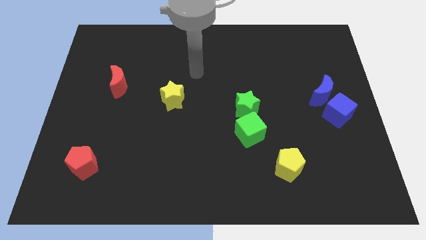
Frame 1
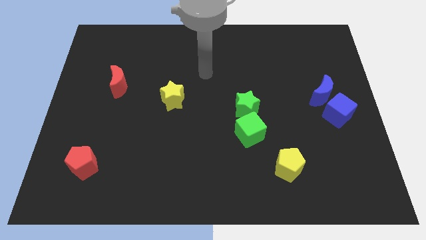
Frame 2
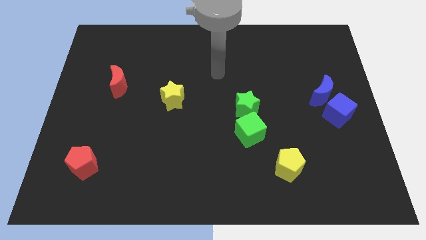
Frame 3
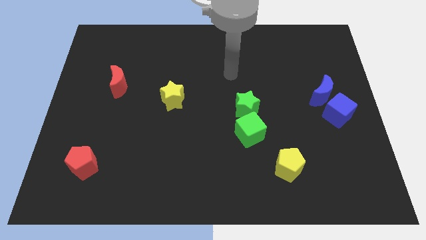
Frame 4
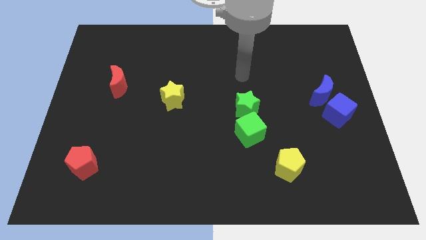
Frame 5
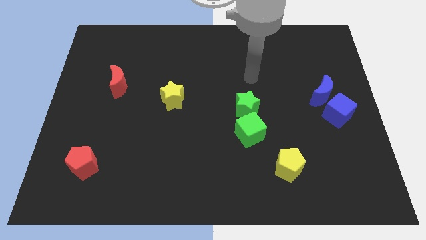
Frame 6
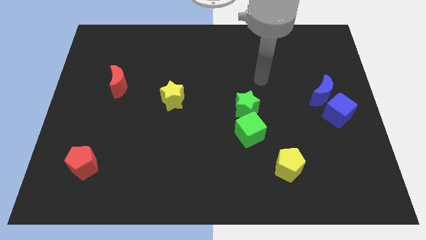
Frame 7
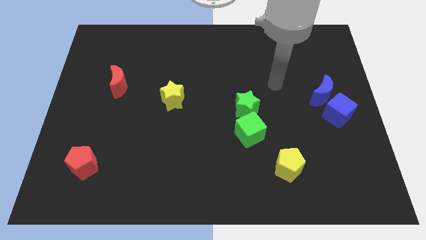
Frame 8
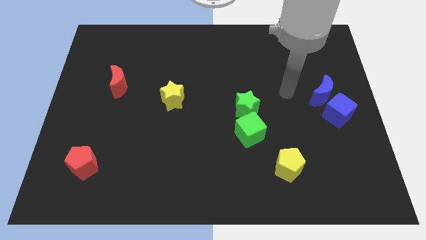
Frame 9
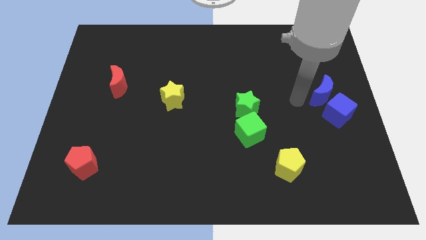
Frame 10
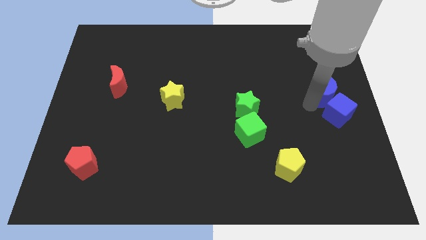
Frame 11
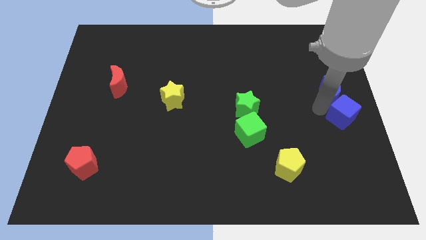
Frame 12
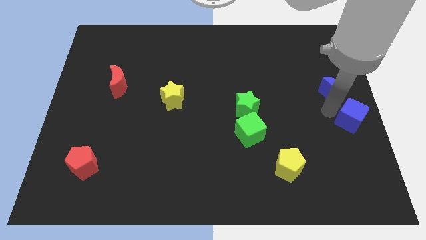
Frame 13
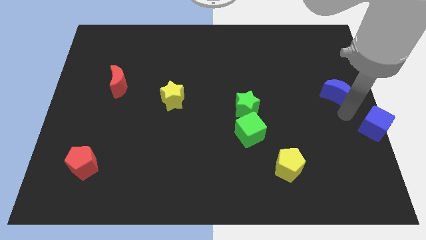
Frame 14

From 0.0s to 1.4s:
separate the blue moon from the blue cube

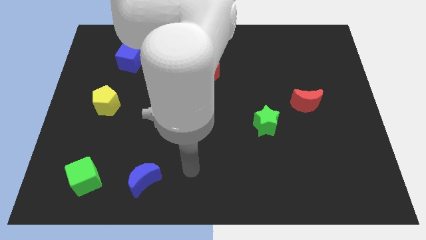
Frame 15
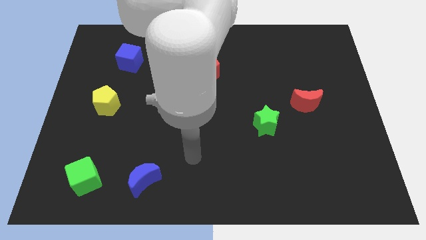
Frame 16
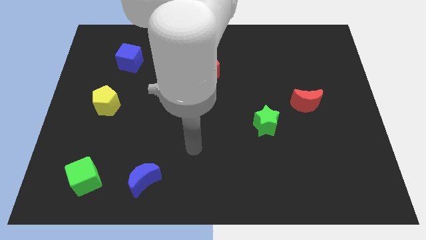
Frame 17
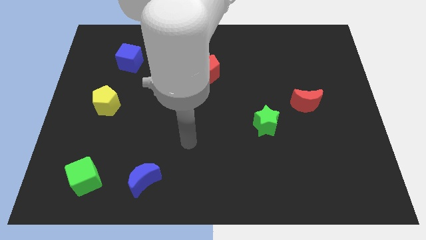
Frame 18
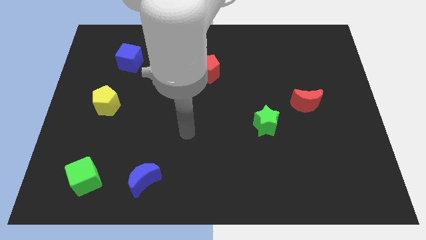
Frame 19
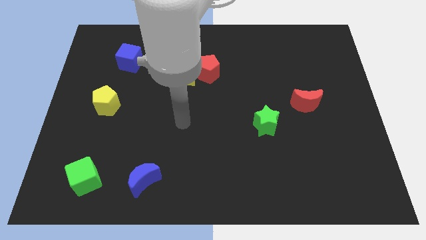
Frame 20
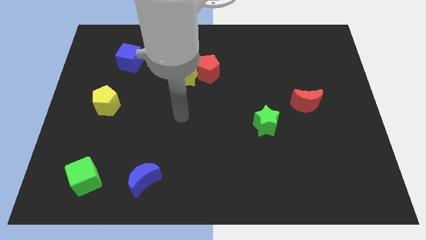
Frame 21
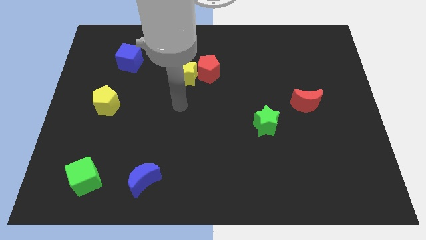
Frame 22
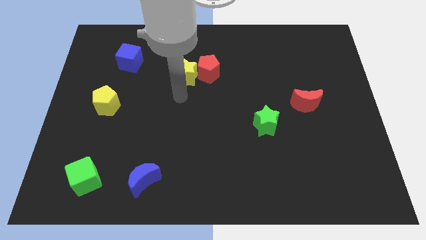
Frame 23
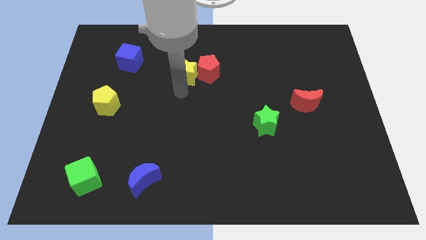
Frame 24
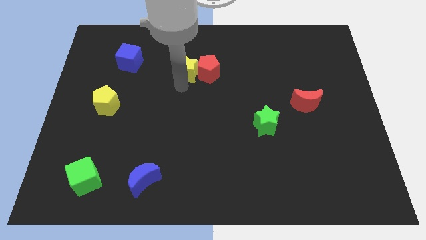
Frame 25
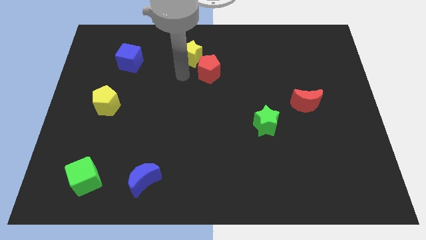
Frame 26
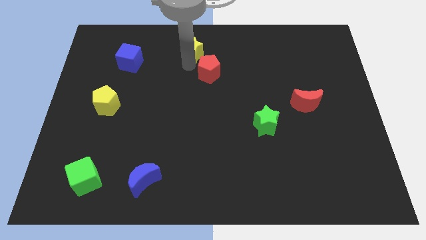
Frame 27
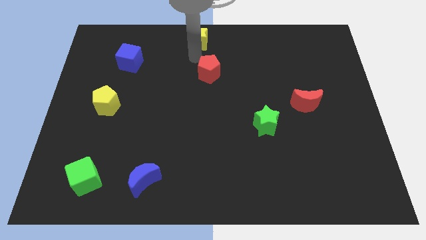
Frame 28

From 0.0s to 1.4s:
move the red pentagon away from the yellow star

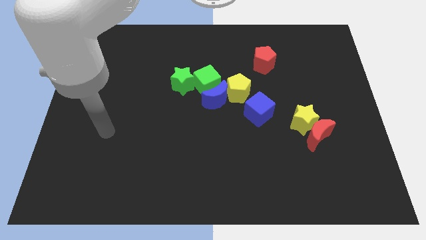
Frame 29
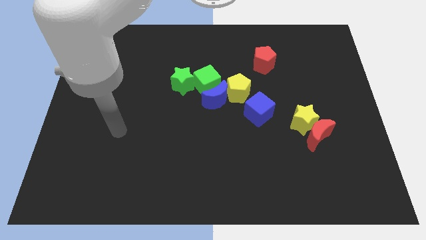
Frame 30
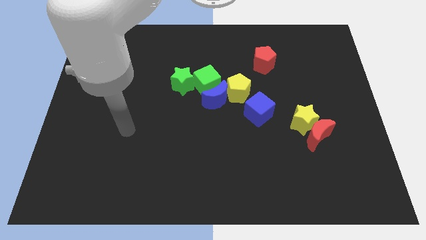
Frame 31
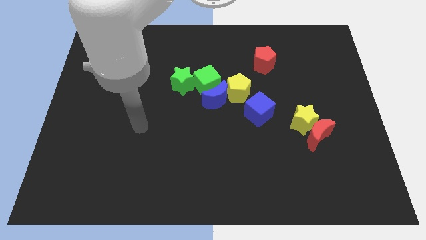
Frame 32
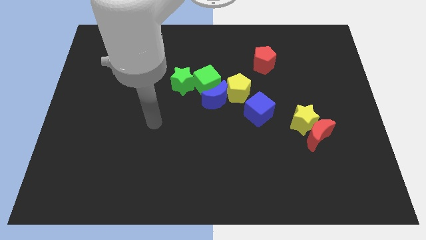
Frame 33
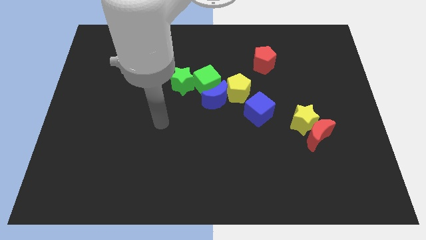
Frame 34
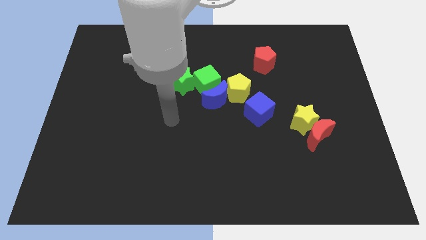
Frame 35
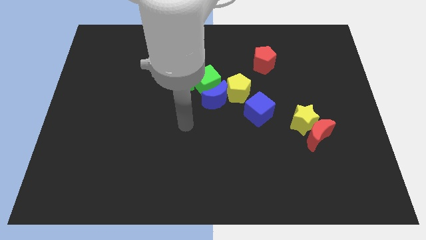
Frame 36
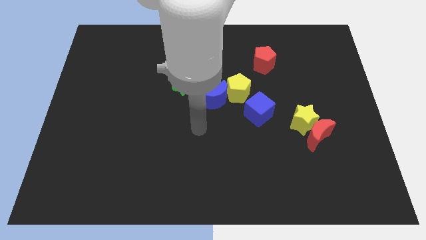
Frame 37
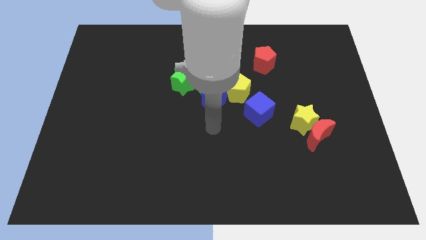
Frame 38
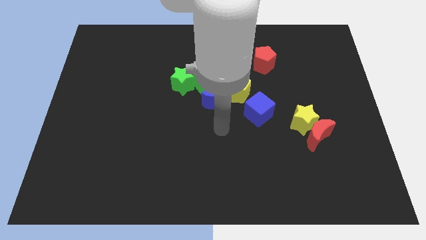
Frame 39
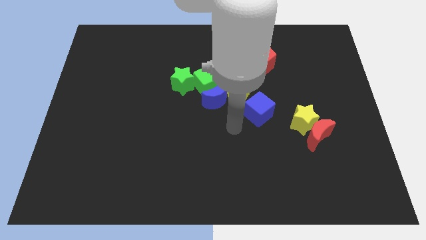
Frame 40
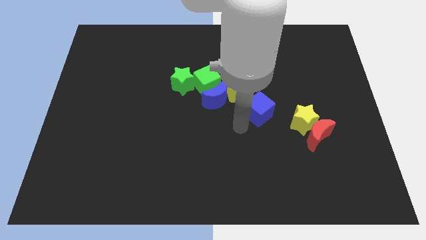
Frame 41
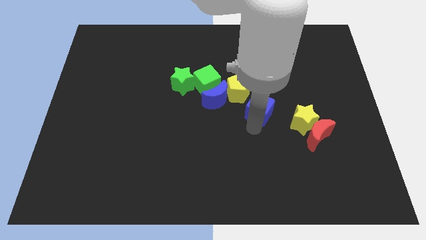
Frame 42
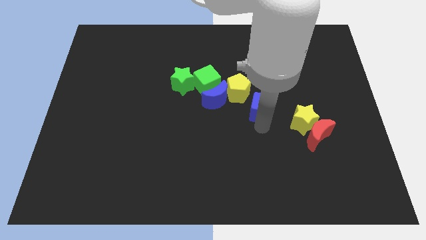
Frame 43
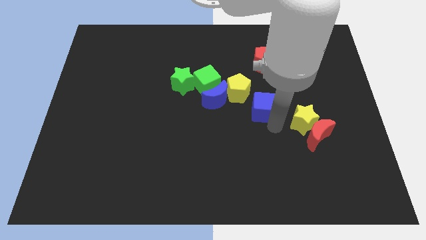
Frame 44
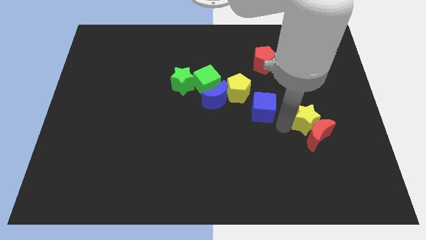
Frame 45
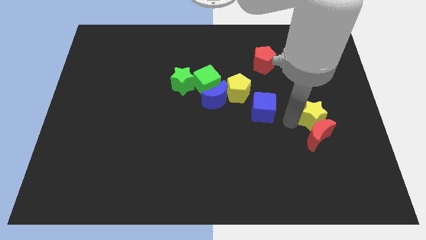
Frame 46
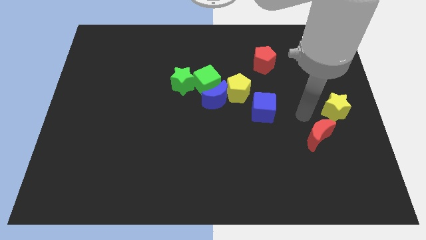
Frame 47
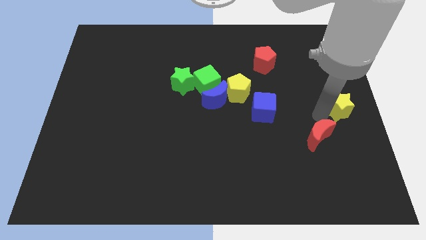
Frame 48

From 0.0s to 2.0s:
pull the red moon apart from the yellow star

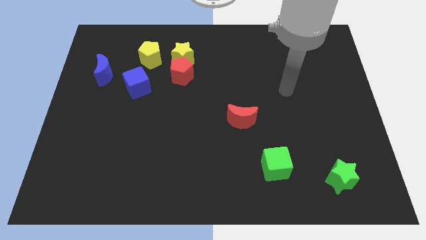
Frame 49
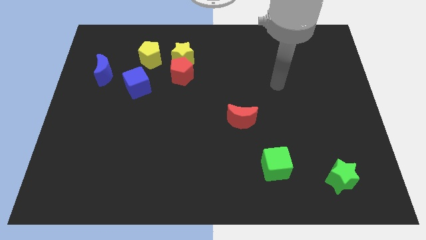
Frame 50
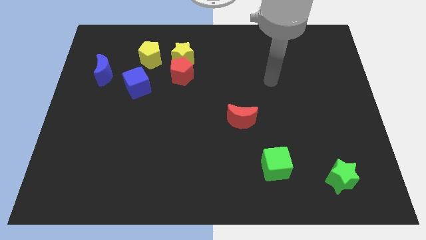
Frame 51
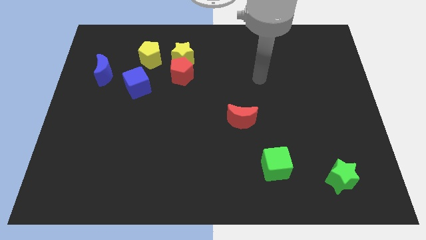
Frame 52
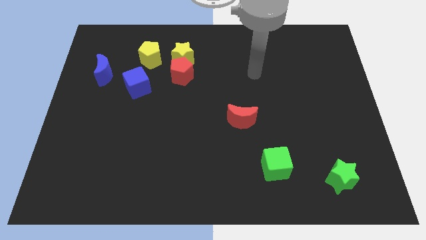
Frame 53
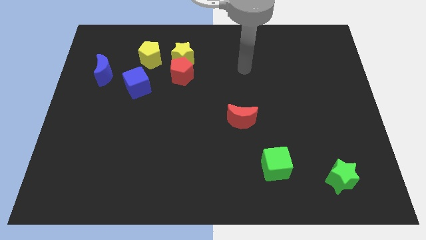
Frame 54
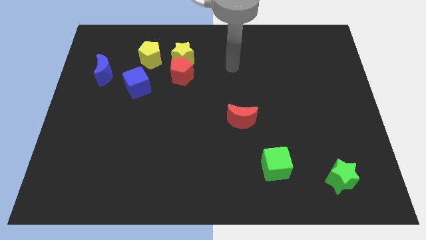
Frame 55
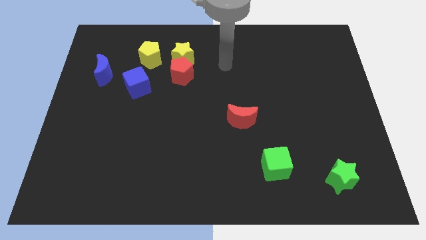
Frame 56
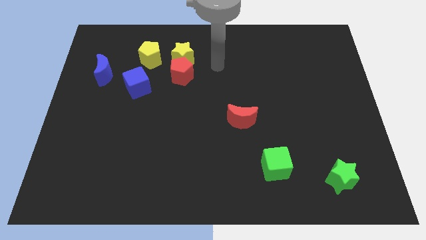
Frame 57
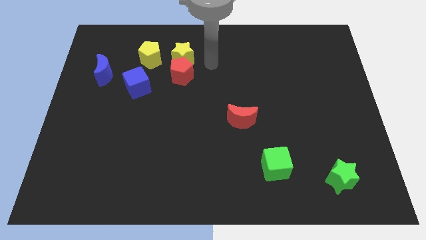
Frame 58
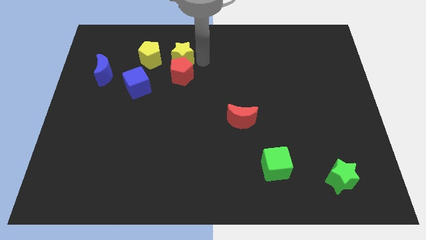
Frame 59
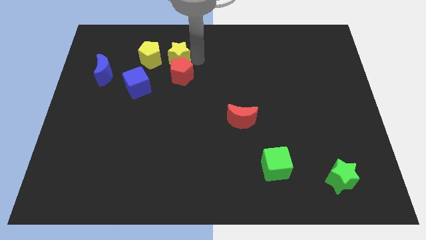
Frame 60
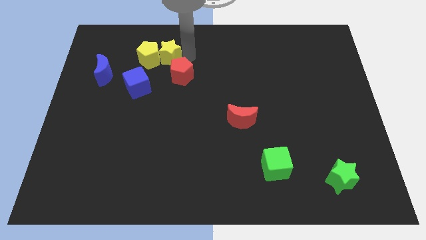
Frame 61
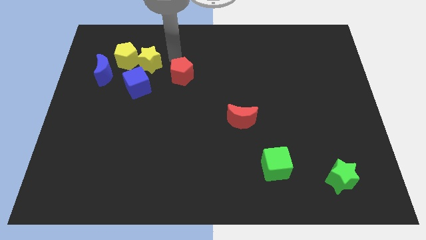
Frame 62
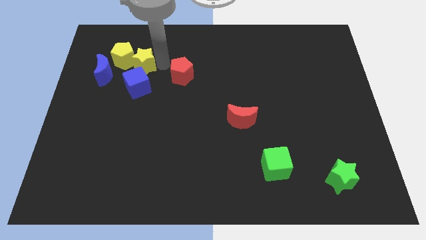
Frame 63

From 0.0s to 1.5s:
pull the red pentagon apart from the yellow star

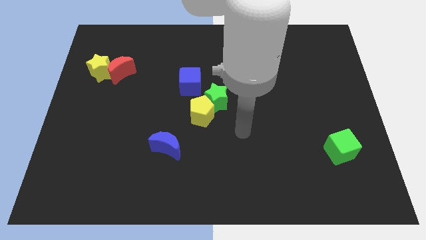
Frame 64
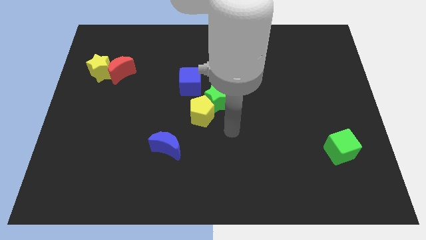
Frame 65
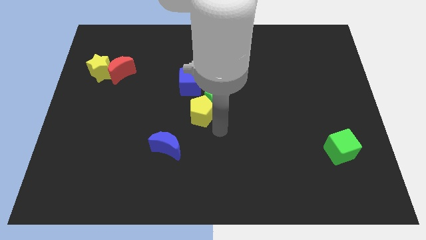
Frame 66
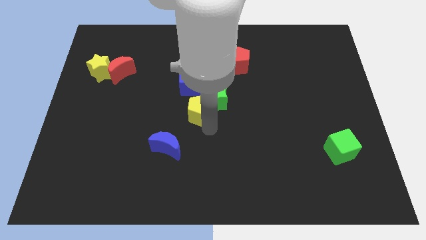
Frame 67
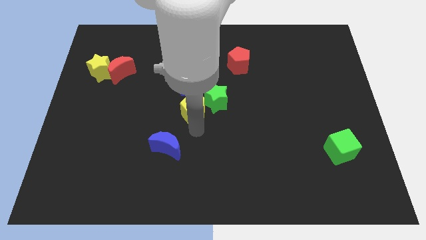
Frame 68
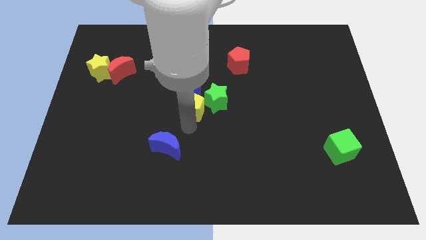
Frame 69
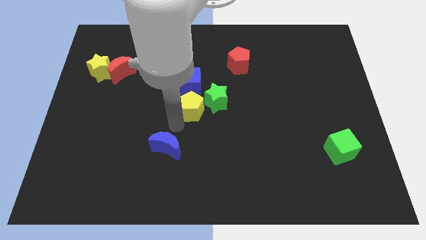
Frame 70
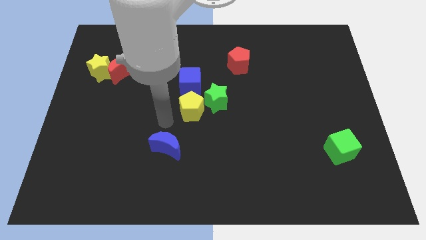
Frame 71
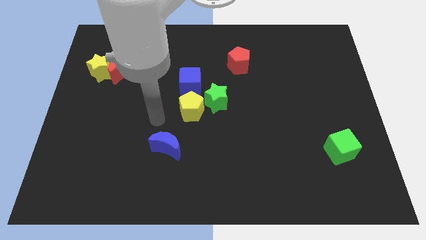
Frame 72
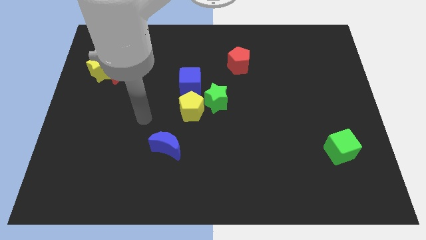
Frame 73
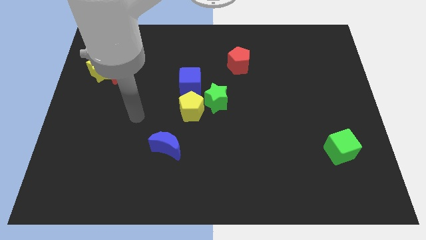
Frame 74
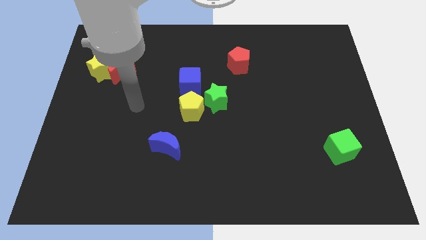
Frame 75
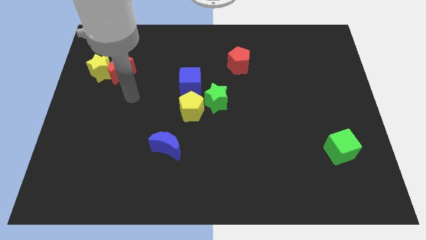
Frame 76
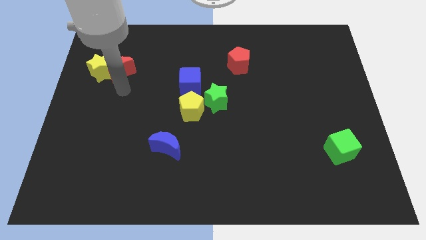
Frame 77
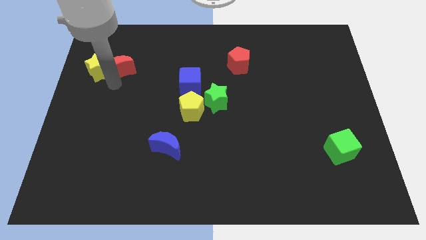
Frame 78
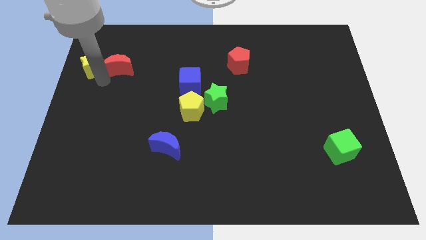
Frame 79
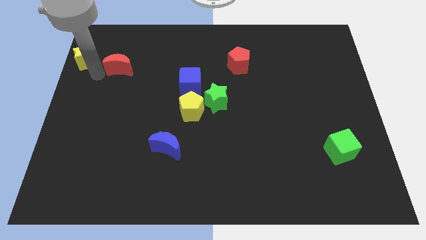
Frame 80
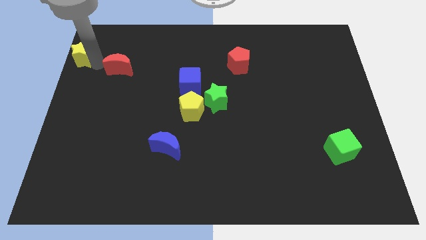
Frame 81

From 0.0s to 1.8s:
move the red moon away from the yellow star

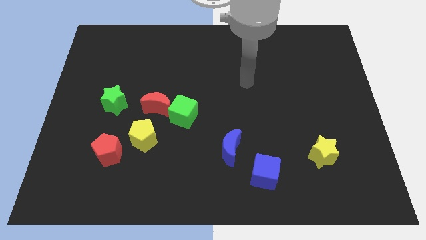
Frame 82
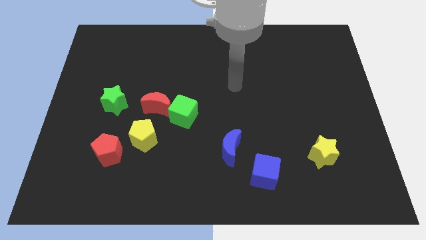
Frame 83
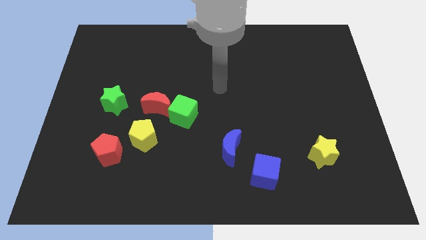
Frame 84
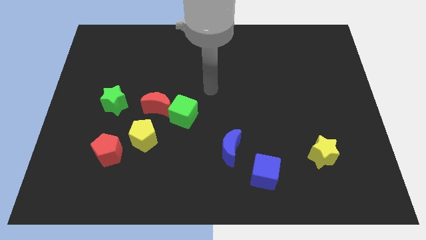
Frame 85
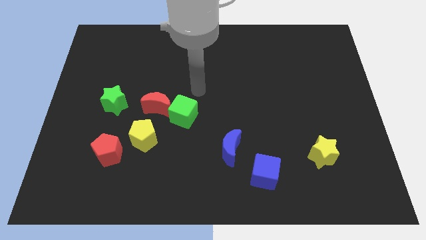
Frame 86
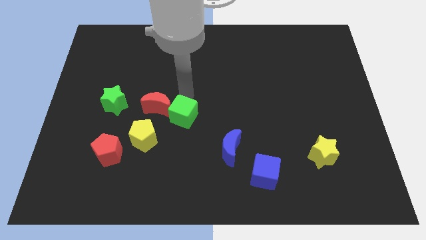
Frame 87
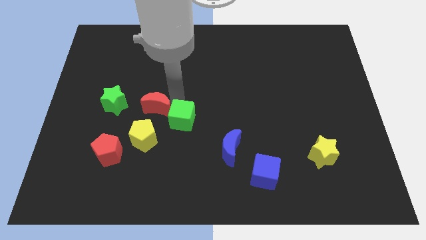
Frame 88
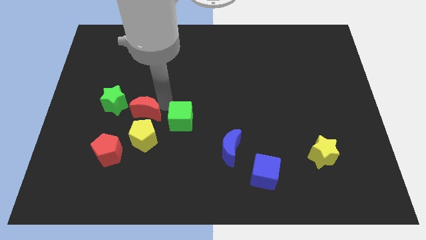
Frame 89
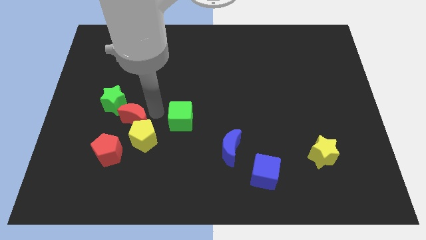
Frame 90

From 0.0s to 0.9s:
separate the green cube from the red moon

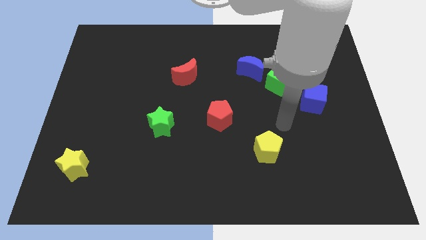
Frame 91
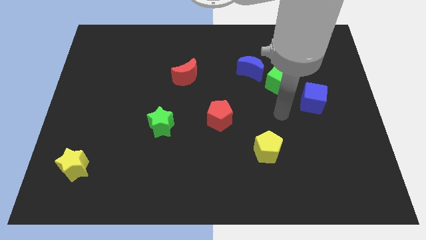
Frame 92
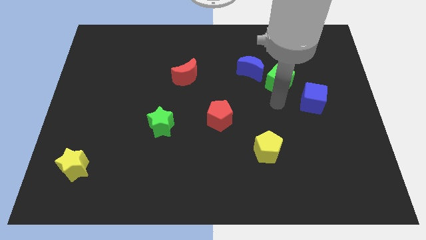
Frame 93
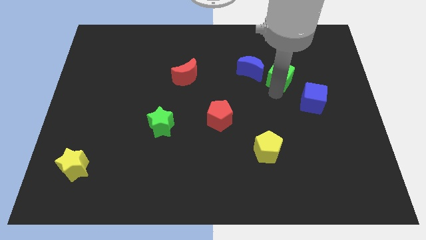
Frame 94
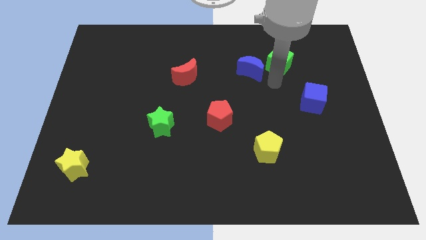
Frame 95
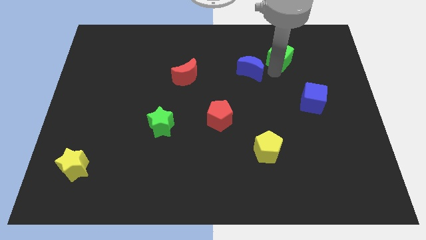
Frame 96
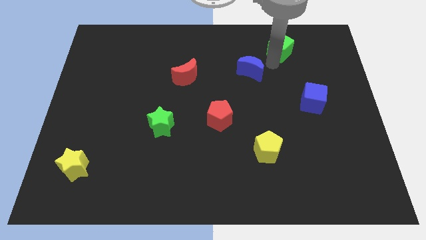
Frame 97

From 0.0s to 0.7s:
separate the blue moon from the green cube
